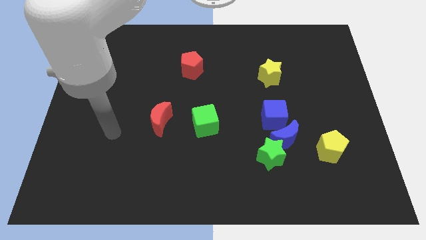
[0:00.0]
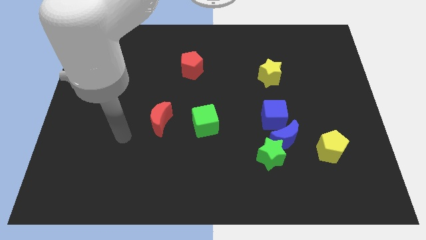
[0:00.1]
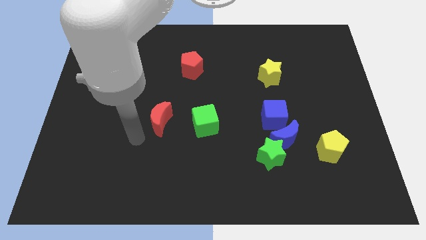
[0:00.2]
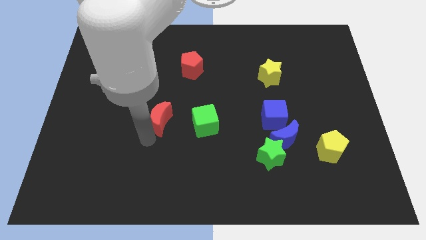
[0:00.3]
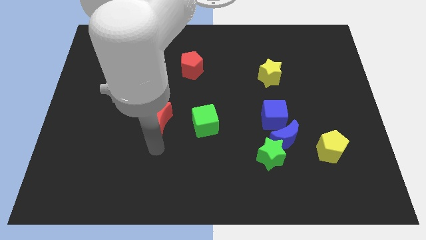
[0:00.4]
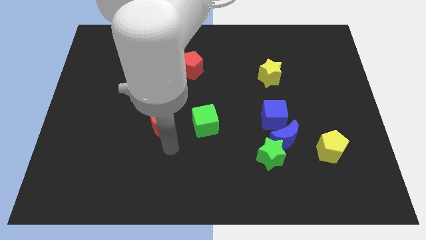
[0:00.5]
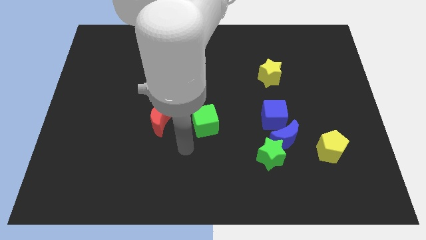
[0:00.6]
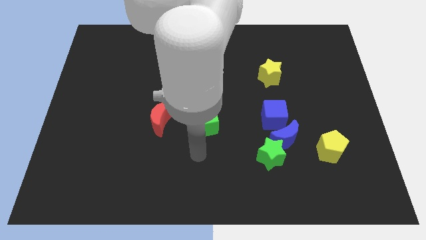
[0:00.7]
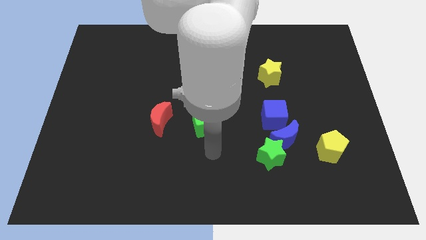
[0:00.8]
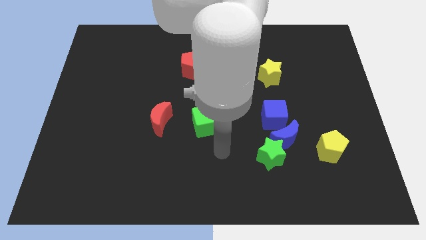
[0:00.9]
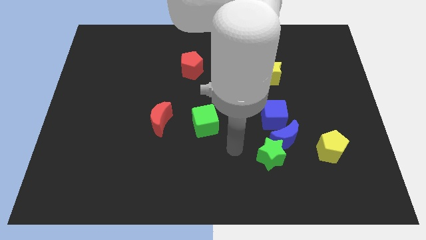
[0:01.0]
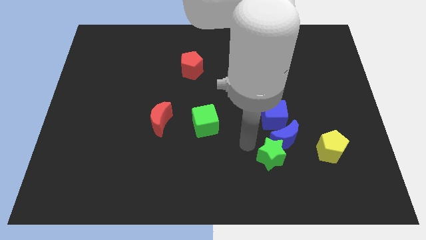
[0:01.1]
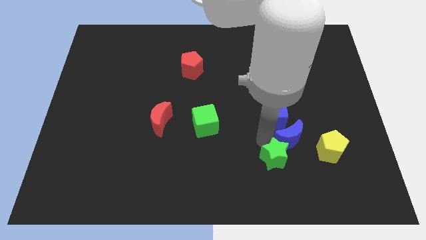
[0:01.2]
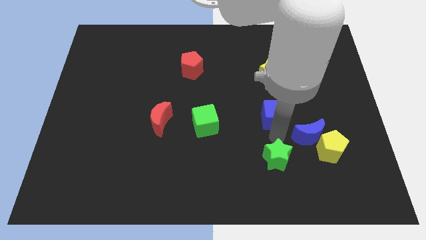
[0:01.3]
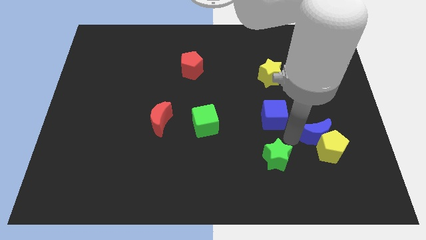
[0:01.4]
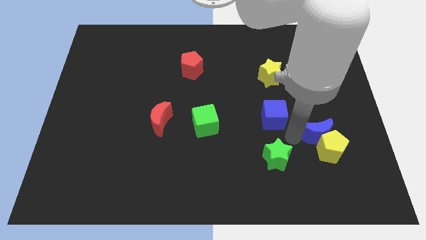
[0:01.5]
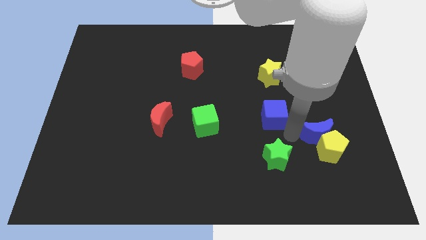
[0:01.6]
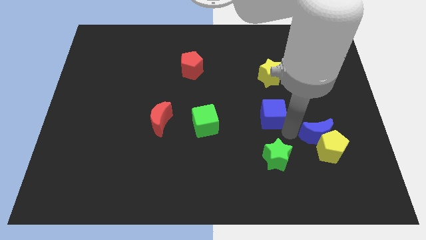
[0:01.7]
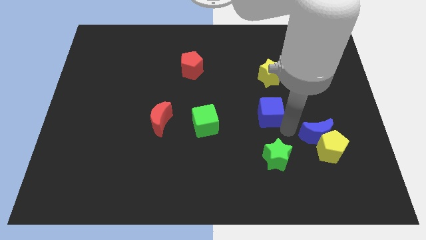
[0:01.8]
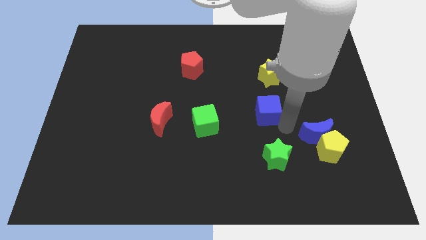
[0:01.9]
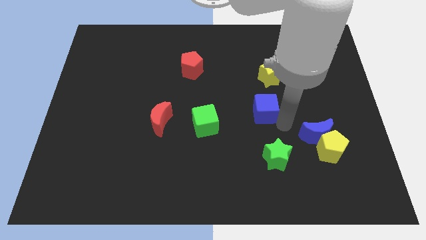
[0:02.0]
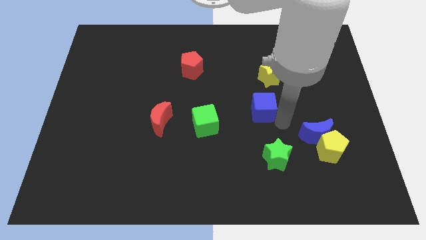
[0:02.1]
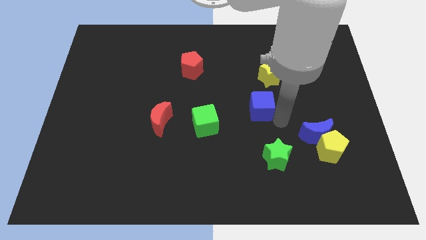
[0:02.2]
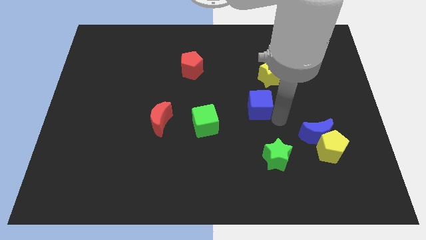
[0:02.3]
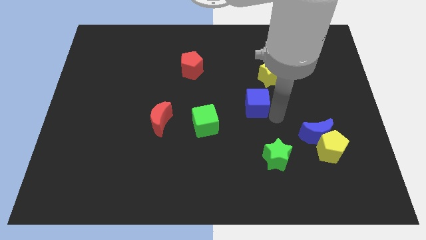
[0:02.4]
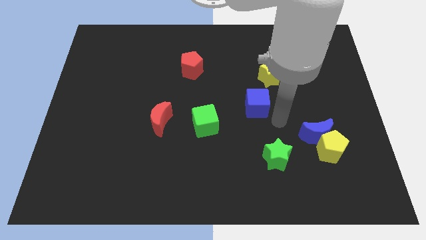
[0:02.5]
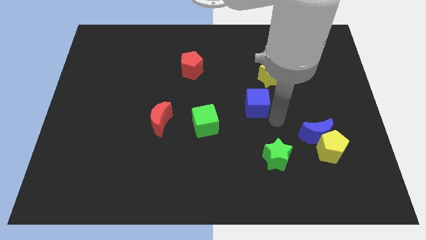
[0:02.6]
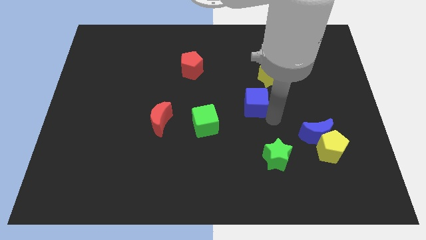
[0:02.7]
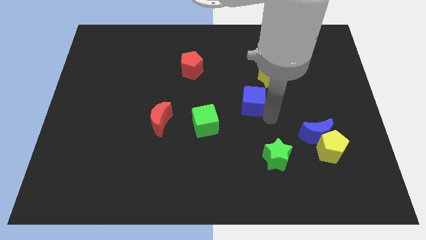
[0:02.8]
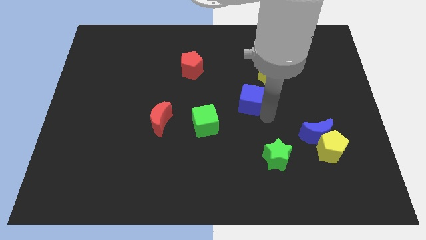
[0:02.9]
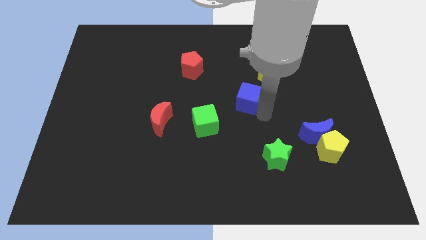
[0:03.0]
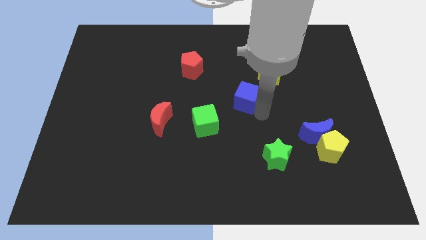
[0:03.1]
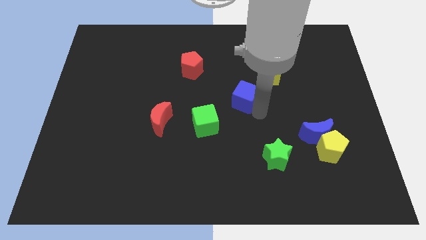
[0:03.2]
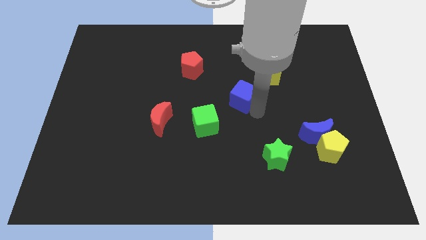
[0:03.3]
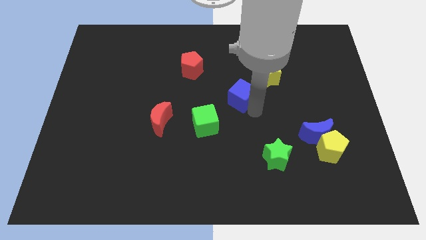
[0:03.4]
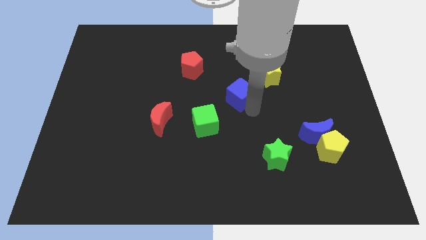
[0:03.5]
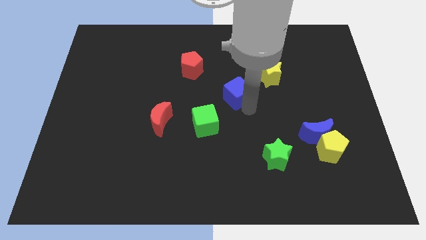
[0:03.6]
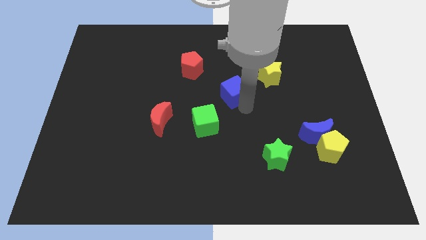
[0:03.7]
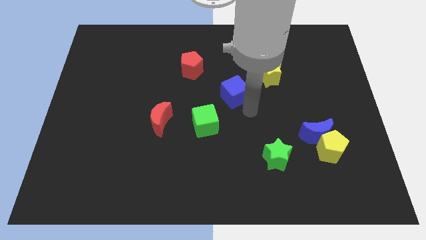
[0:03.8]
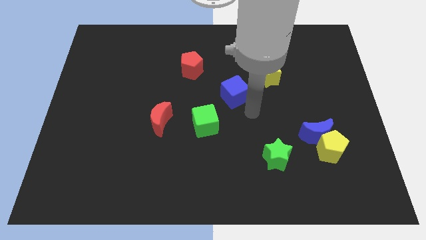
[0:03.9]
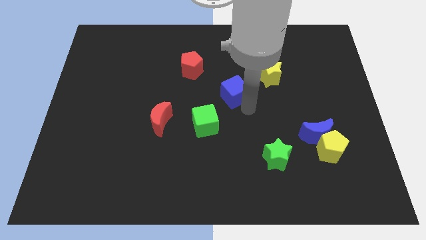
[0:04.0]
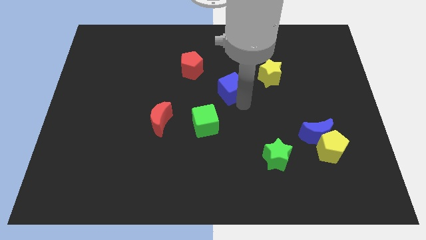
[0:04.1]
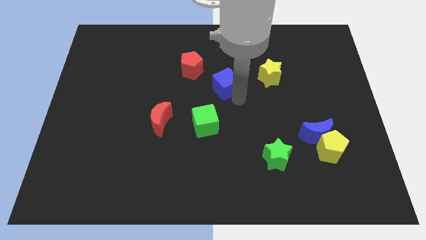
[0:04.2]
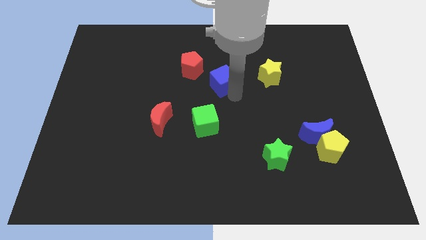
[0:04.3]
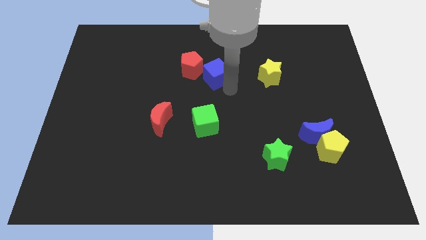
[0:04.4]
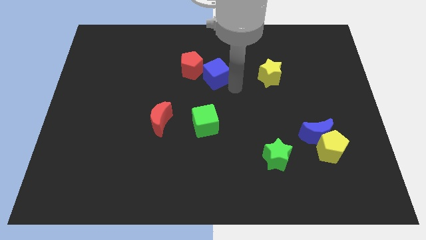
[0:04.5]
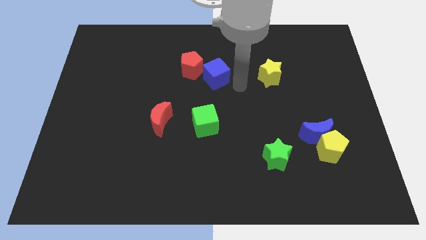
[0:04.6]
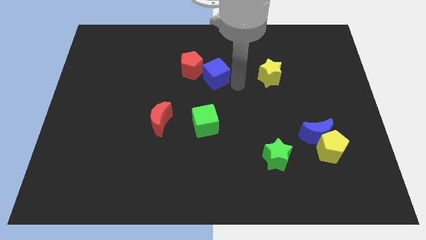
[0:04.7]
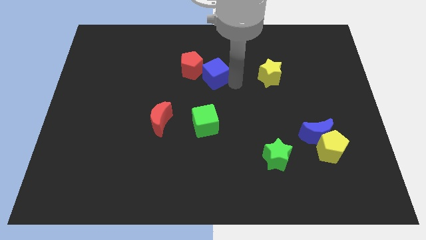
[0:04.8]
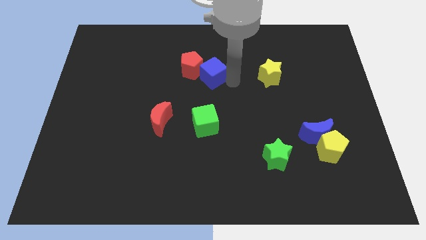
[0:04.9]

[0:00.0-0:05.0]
put the blue cube towards the red pentagon

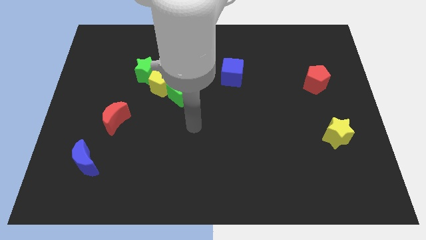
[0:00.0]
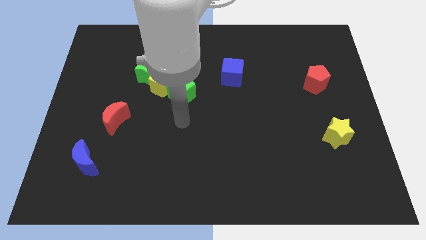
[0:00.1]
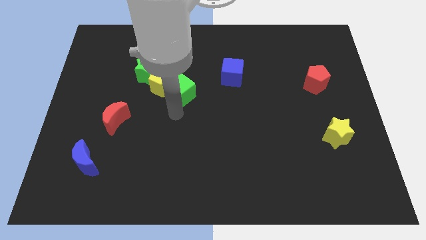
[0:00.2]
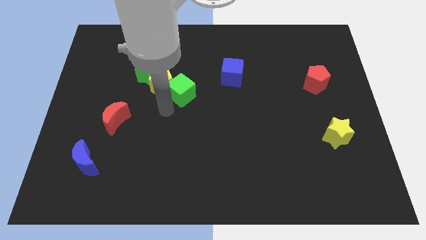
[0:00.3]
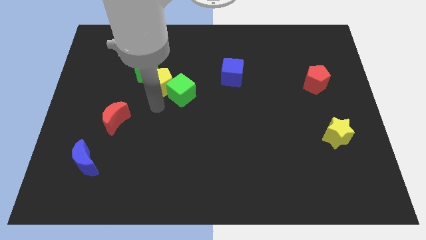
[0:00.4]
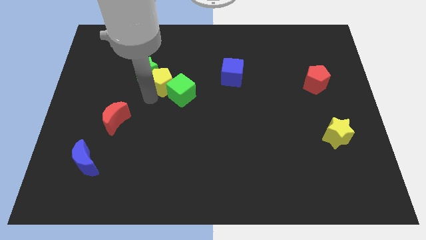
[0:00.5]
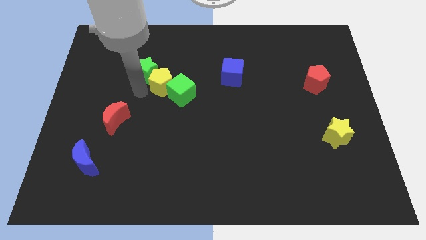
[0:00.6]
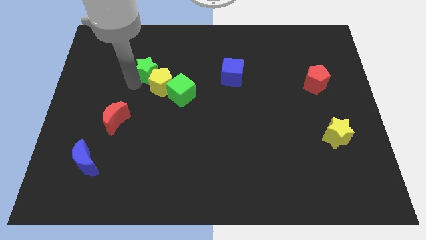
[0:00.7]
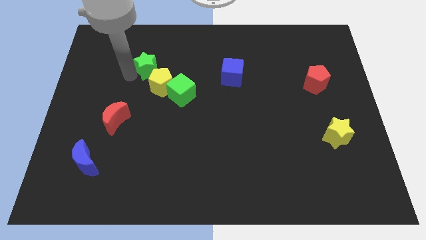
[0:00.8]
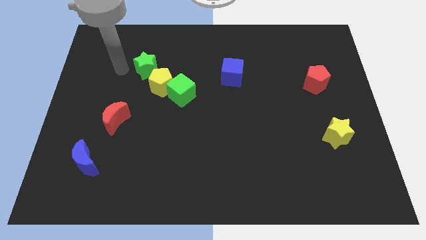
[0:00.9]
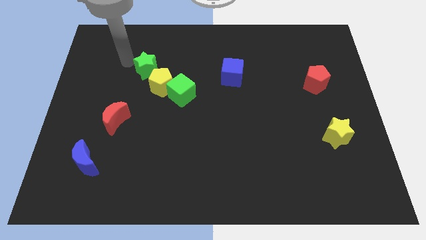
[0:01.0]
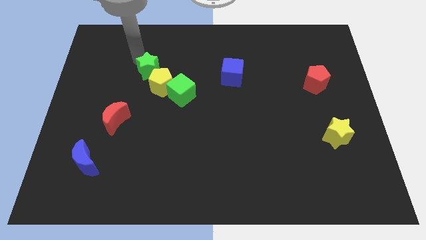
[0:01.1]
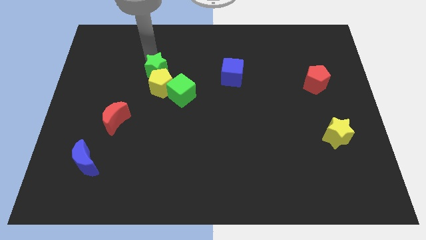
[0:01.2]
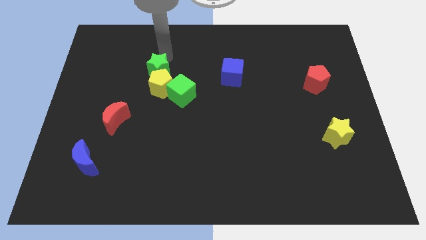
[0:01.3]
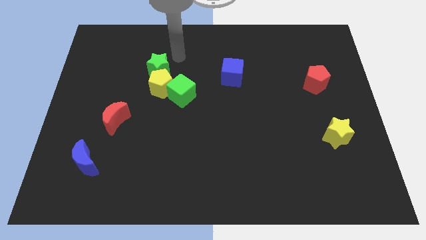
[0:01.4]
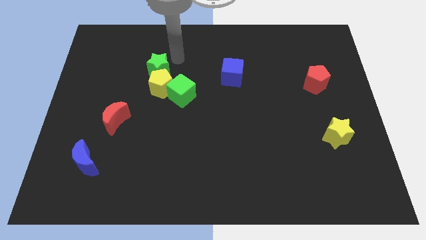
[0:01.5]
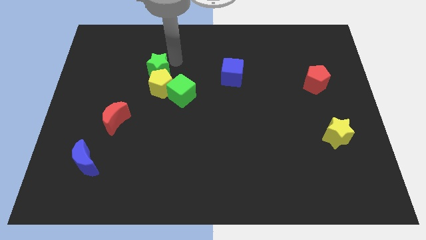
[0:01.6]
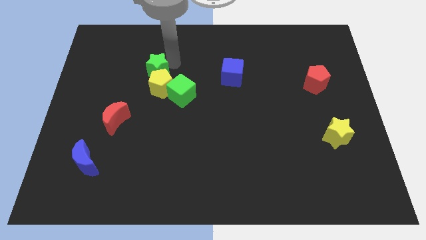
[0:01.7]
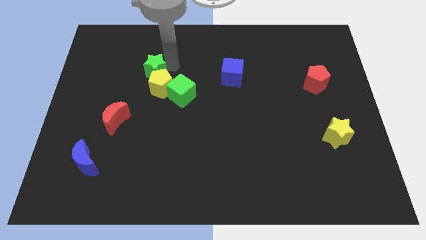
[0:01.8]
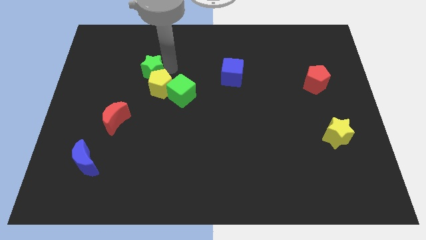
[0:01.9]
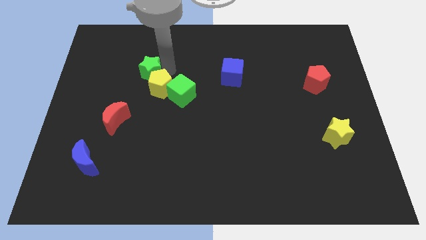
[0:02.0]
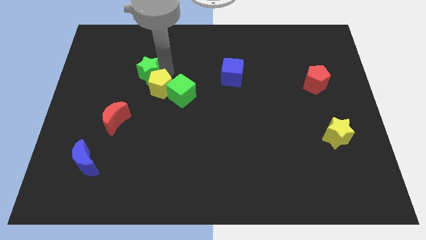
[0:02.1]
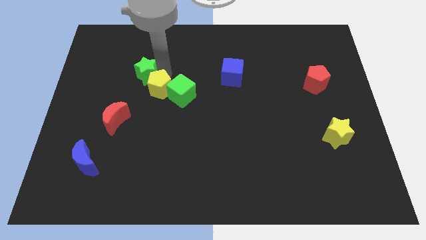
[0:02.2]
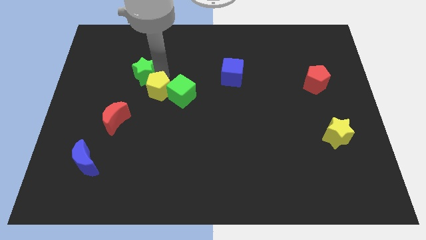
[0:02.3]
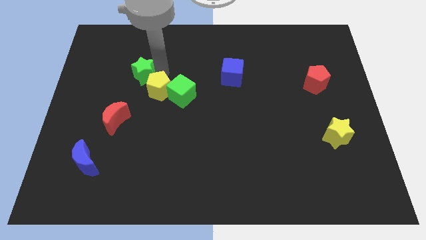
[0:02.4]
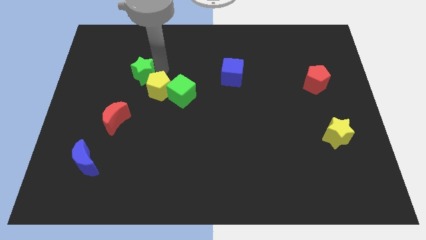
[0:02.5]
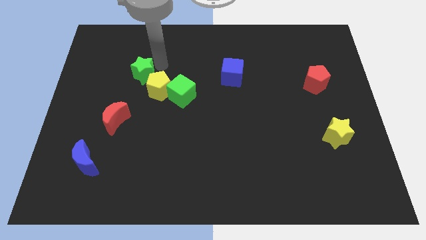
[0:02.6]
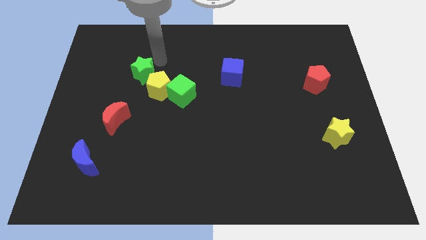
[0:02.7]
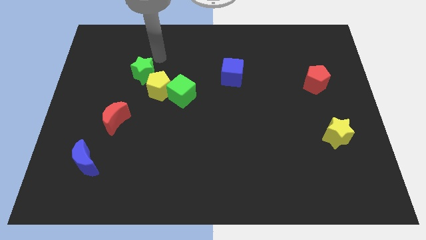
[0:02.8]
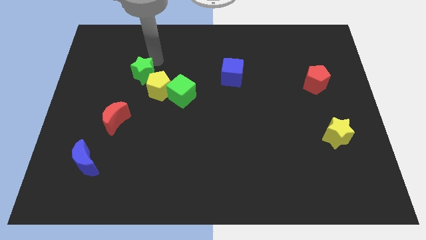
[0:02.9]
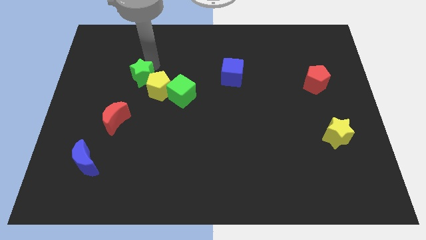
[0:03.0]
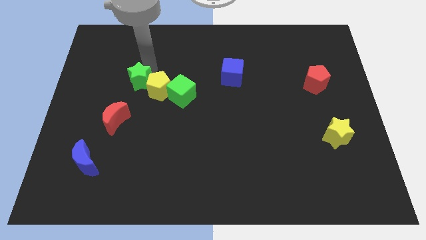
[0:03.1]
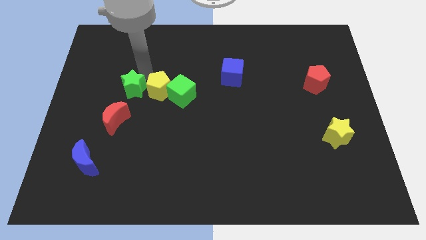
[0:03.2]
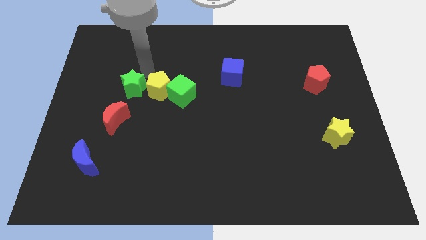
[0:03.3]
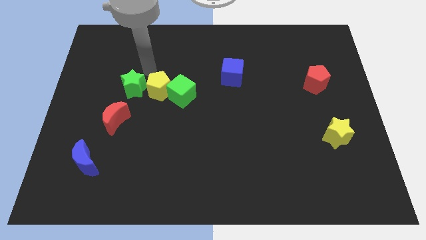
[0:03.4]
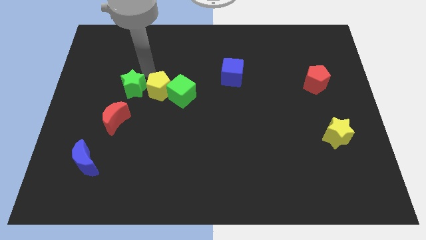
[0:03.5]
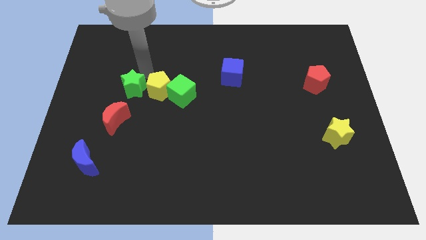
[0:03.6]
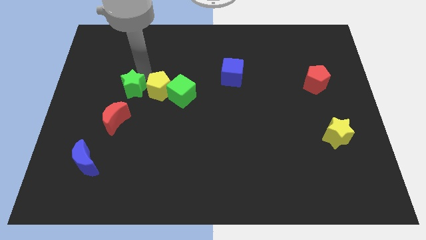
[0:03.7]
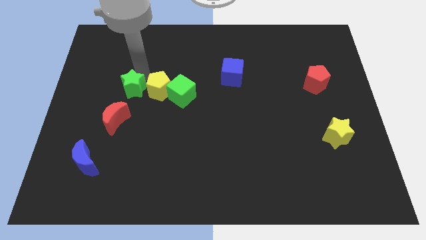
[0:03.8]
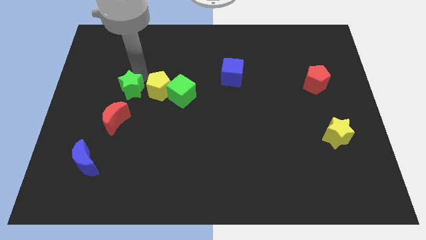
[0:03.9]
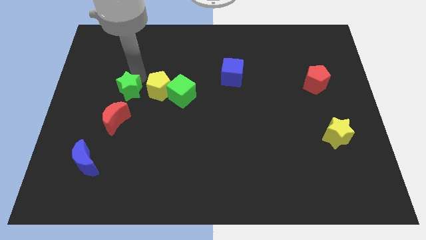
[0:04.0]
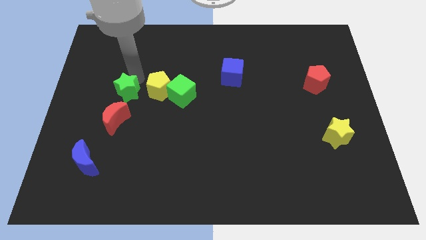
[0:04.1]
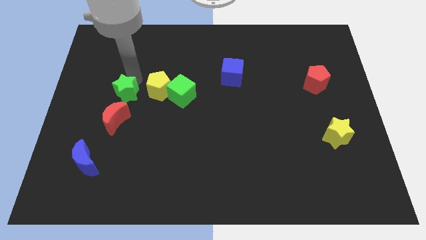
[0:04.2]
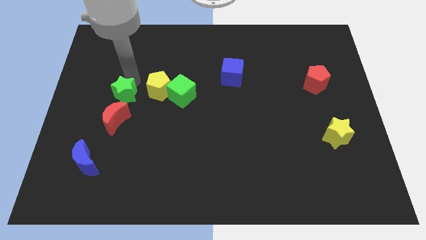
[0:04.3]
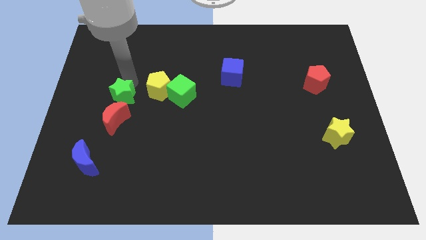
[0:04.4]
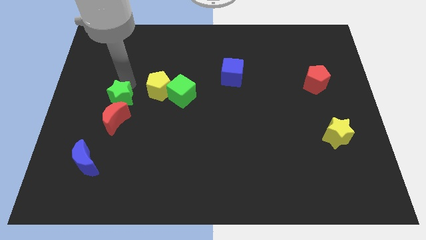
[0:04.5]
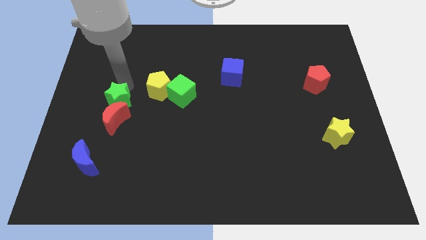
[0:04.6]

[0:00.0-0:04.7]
push the green star next to the red moon
